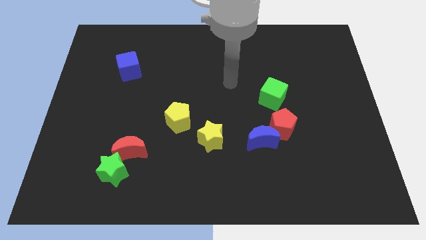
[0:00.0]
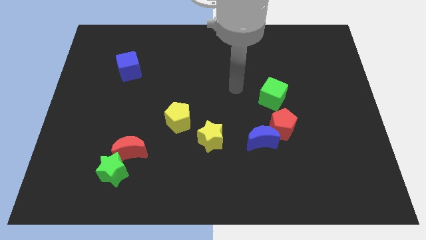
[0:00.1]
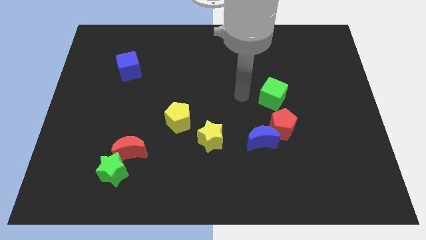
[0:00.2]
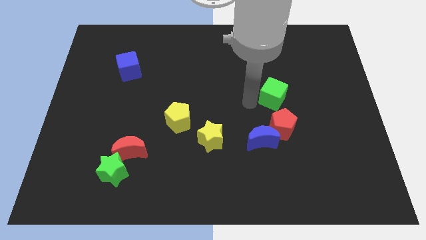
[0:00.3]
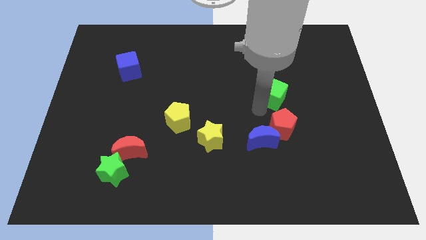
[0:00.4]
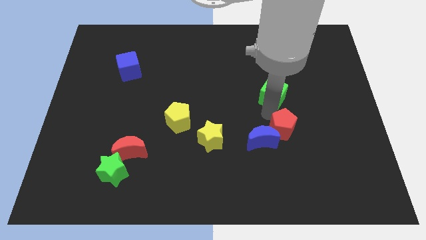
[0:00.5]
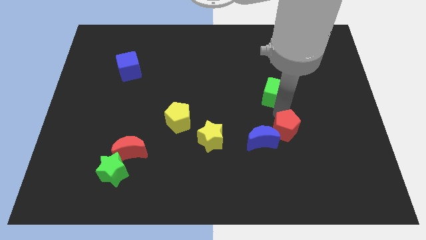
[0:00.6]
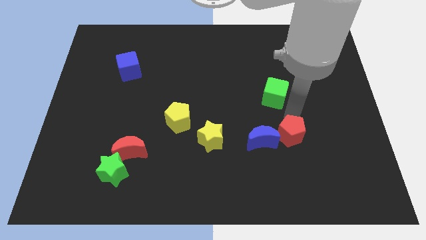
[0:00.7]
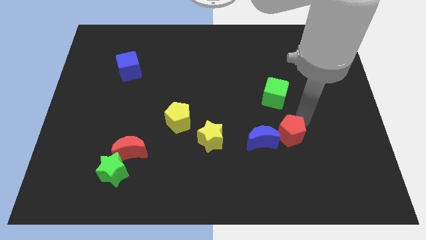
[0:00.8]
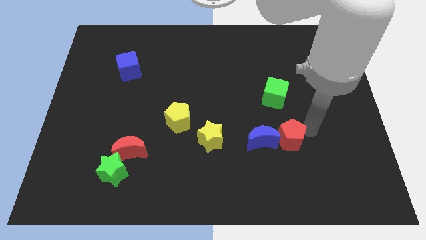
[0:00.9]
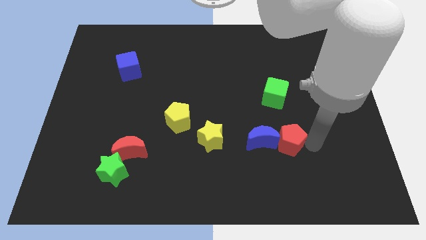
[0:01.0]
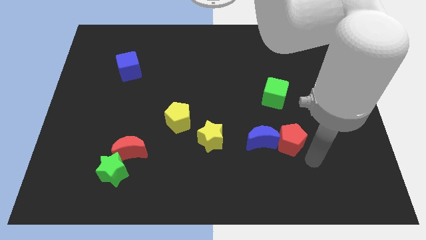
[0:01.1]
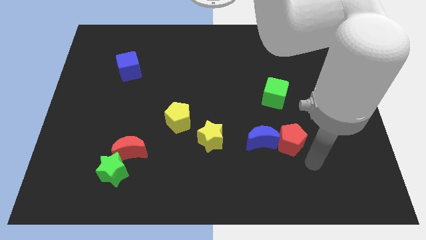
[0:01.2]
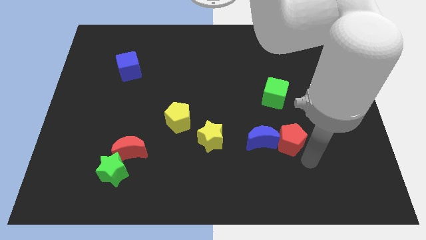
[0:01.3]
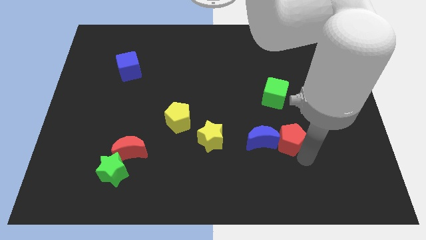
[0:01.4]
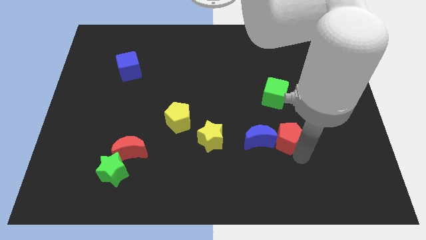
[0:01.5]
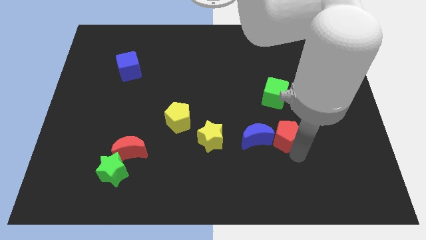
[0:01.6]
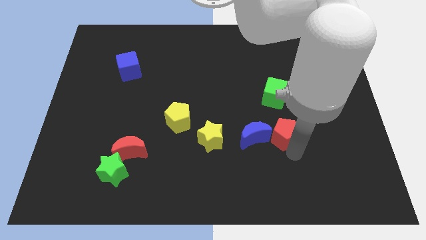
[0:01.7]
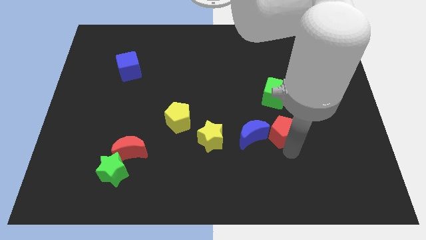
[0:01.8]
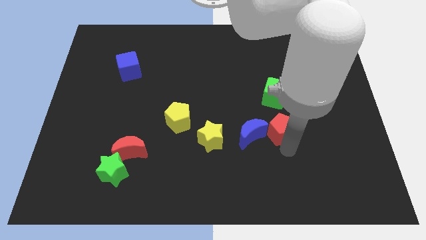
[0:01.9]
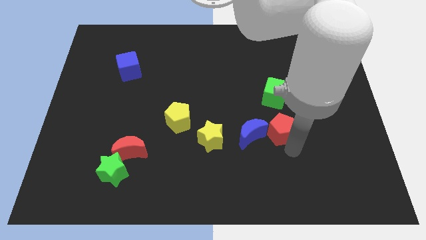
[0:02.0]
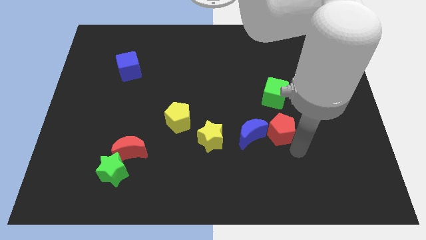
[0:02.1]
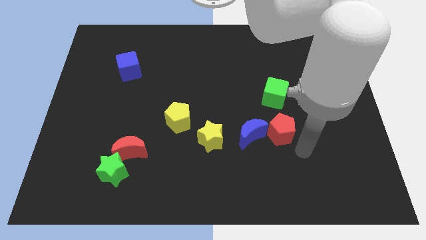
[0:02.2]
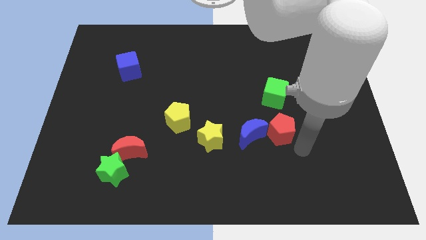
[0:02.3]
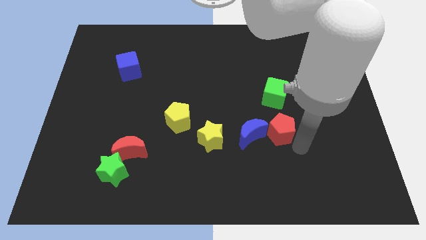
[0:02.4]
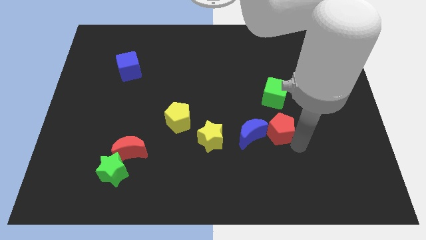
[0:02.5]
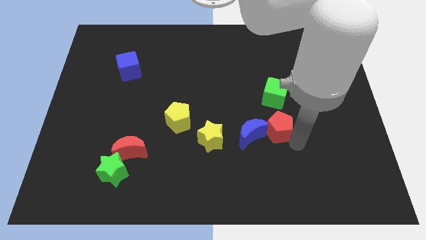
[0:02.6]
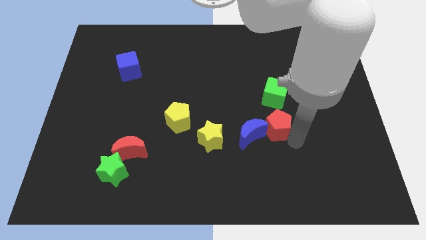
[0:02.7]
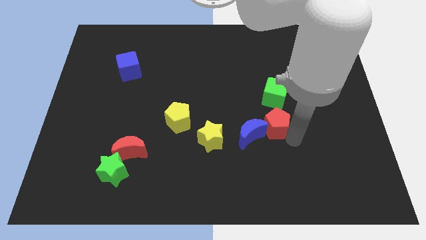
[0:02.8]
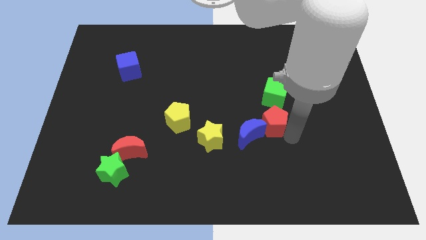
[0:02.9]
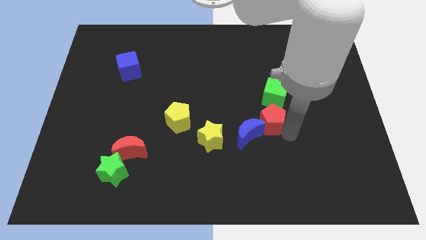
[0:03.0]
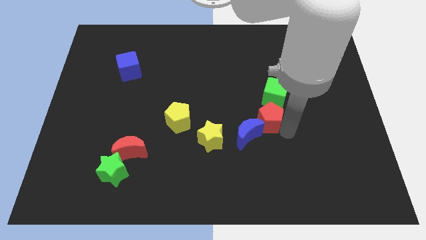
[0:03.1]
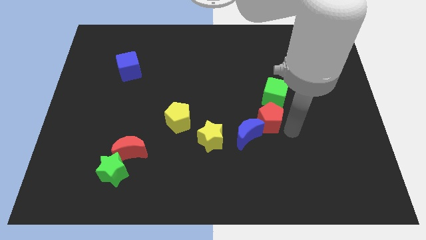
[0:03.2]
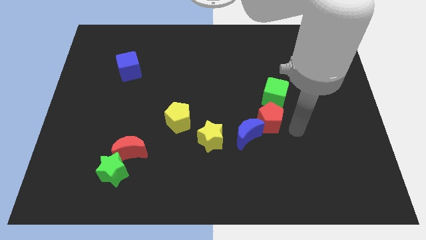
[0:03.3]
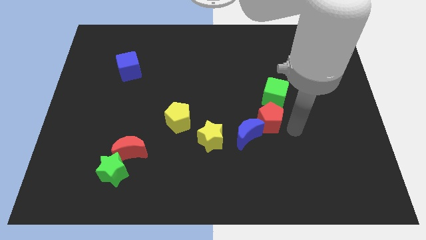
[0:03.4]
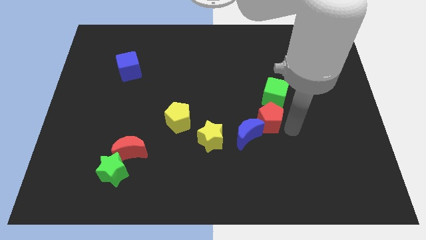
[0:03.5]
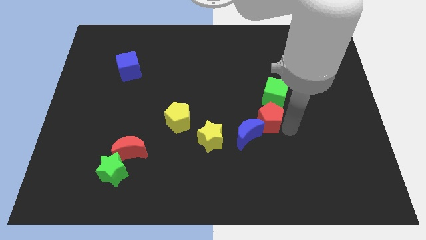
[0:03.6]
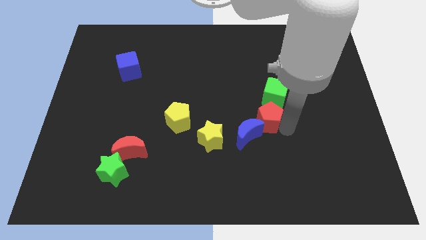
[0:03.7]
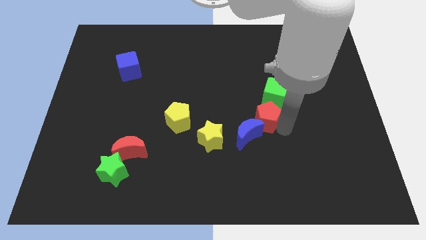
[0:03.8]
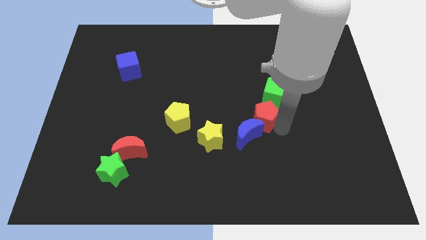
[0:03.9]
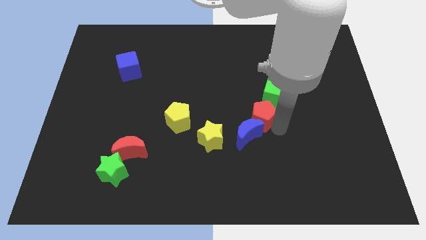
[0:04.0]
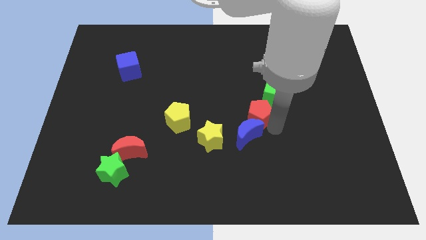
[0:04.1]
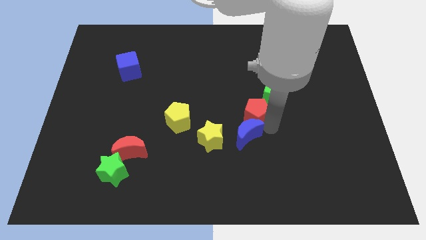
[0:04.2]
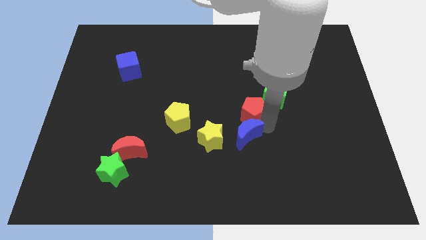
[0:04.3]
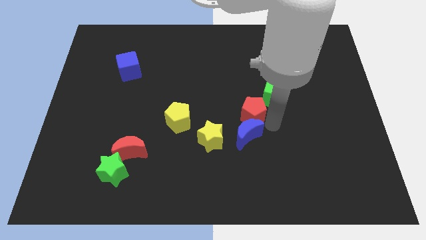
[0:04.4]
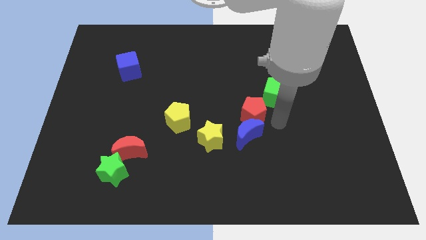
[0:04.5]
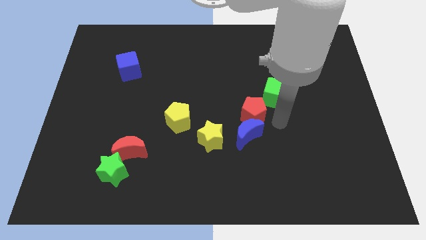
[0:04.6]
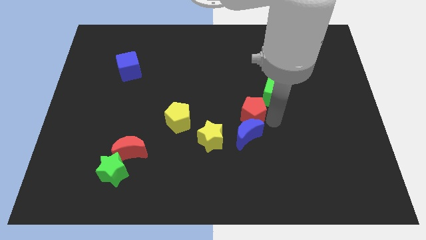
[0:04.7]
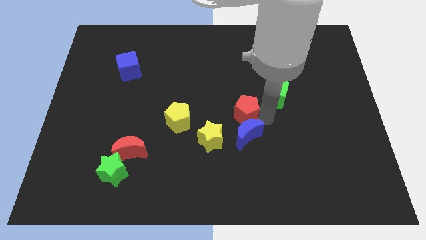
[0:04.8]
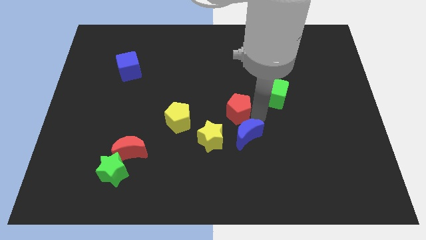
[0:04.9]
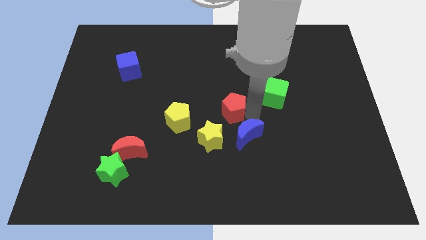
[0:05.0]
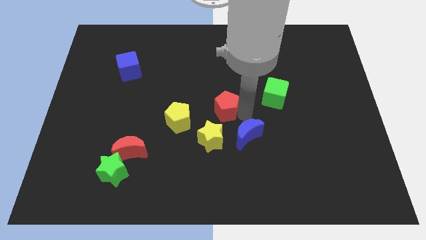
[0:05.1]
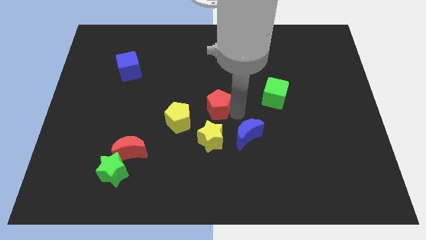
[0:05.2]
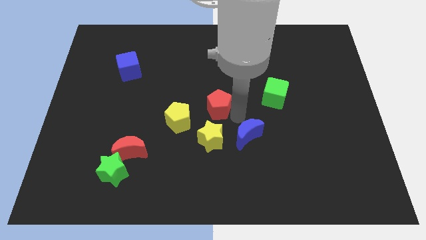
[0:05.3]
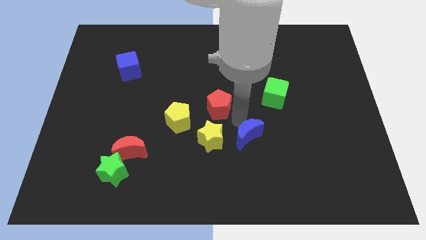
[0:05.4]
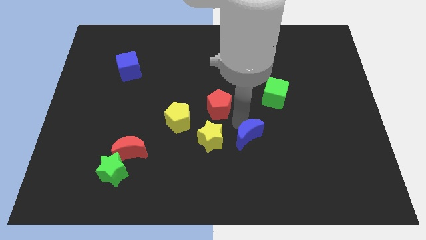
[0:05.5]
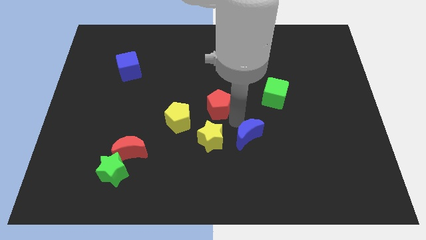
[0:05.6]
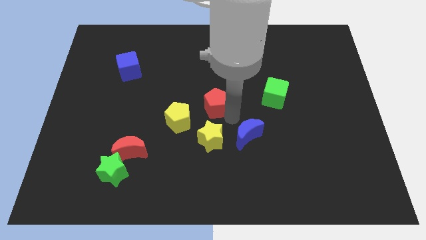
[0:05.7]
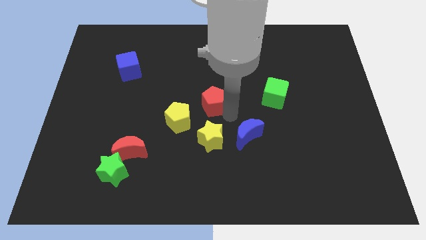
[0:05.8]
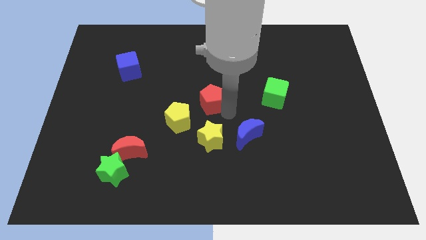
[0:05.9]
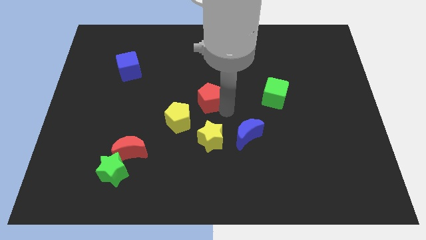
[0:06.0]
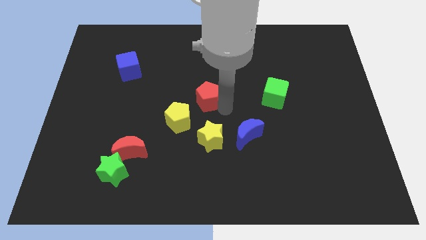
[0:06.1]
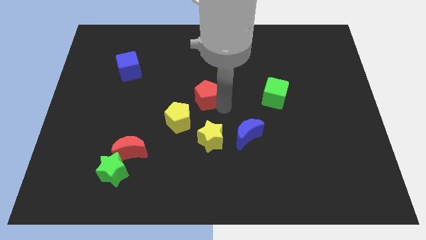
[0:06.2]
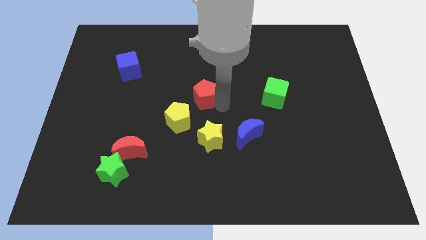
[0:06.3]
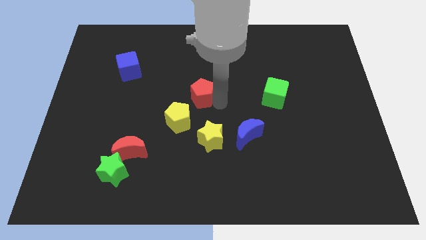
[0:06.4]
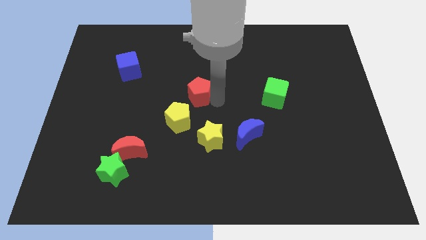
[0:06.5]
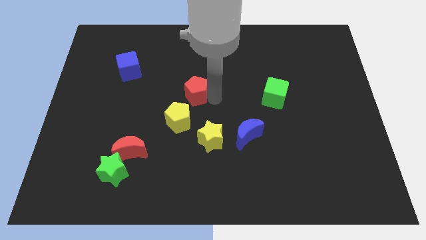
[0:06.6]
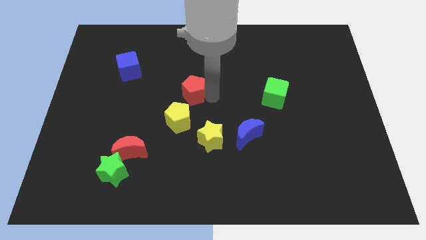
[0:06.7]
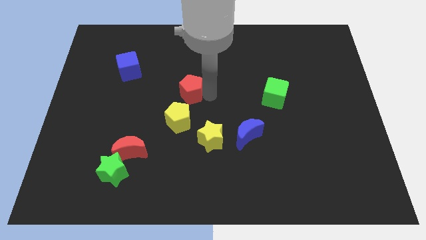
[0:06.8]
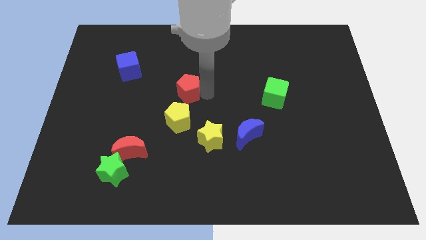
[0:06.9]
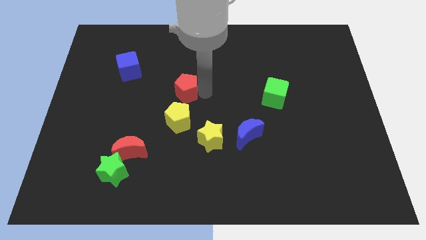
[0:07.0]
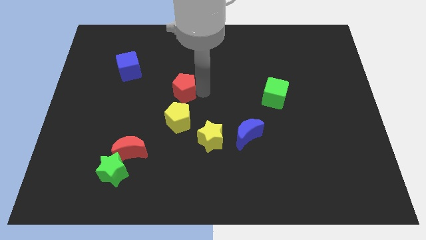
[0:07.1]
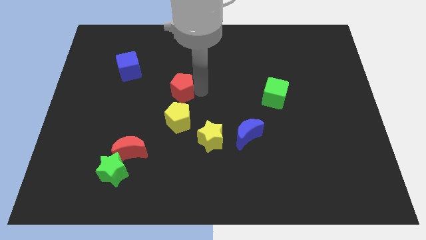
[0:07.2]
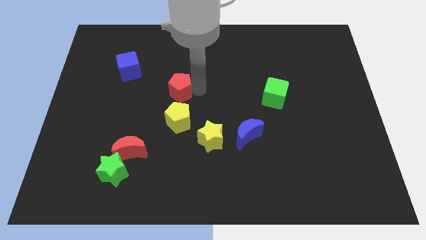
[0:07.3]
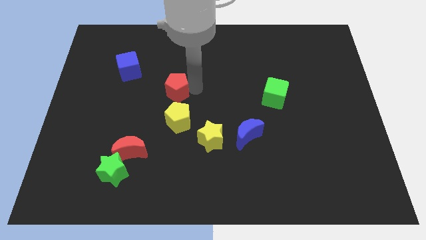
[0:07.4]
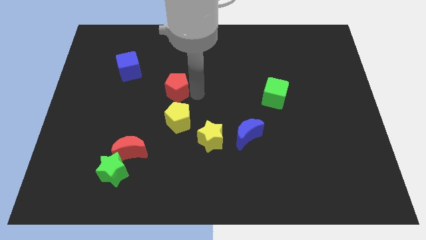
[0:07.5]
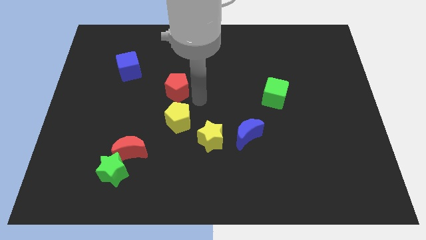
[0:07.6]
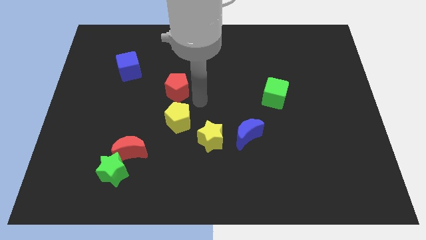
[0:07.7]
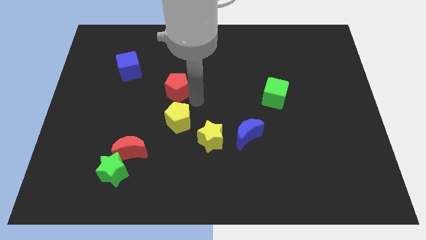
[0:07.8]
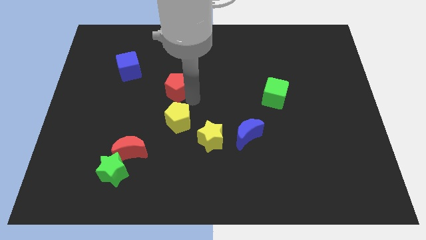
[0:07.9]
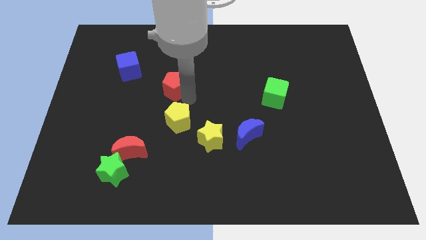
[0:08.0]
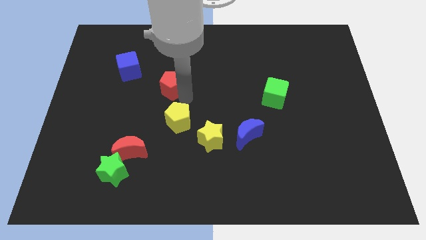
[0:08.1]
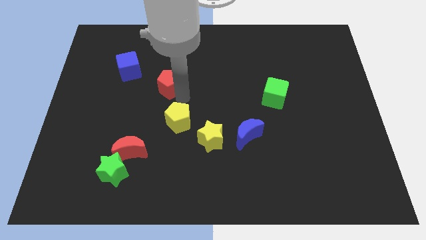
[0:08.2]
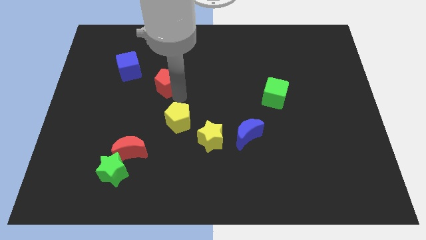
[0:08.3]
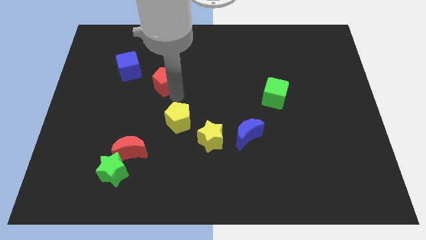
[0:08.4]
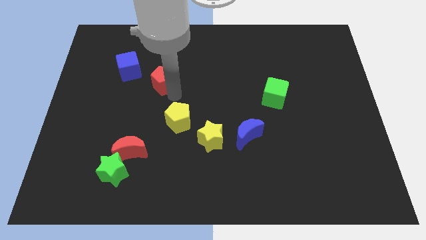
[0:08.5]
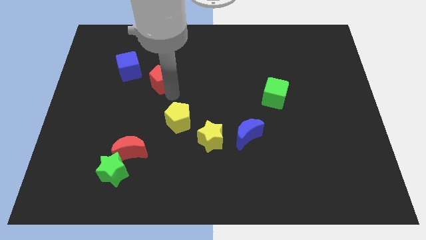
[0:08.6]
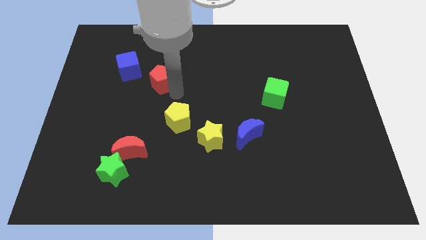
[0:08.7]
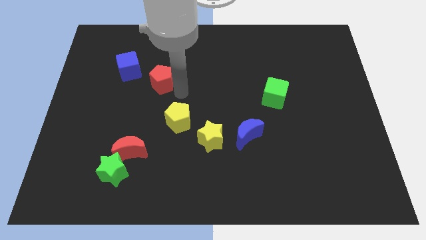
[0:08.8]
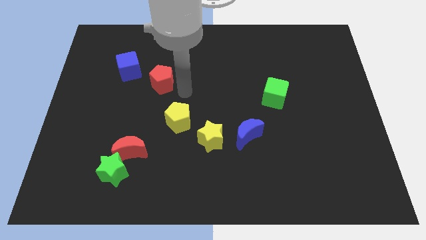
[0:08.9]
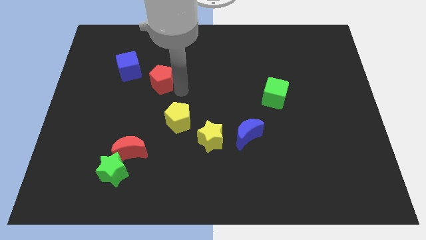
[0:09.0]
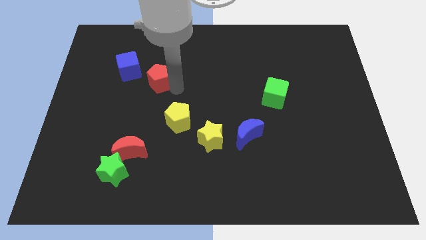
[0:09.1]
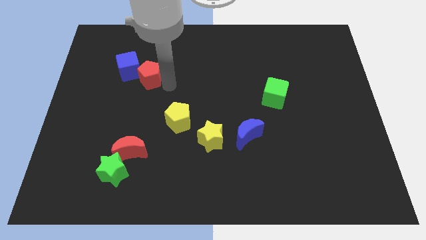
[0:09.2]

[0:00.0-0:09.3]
put the red pentagon next to the blue cube
